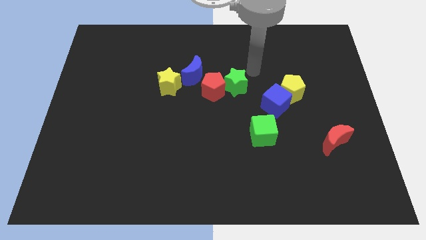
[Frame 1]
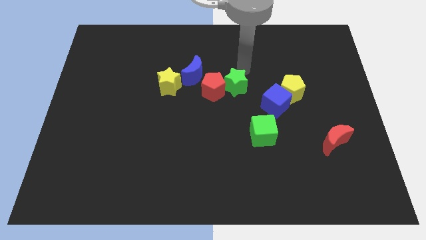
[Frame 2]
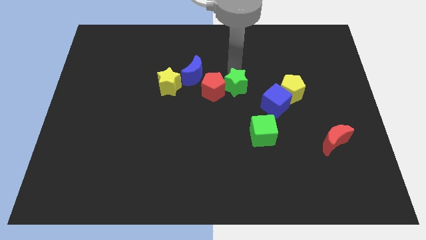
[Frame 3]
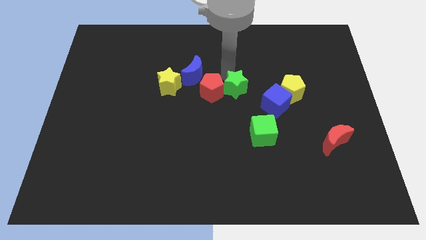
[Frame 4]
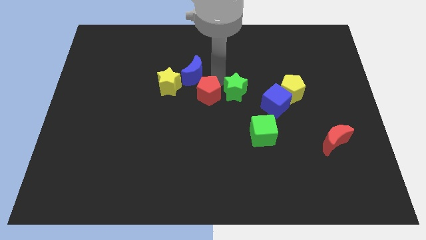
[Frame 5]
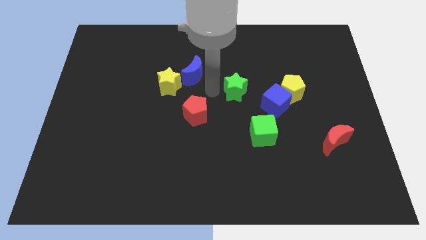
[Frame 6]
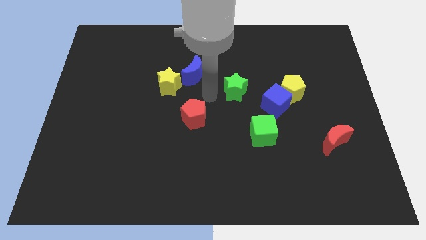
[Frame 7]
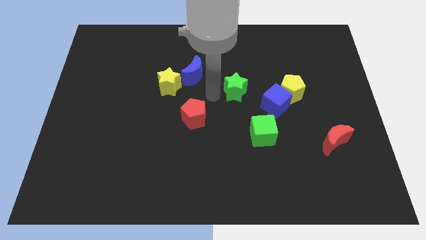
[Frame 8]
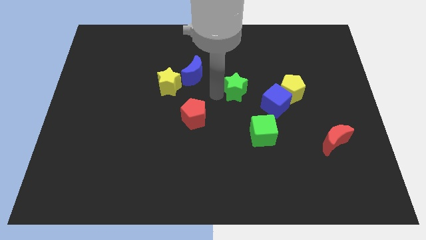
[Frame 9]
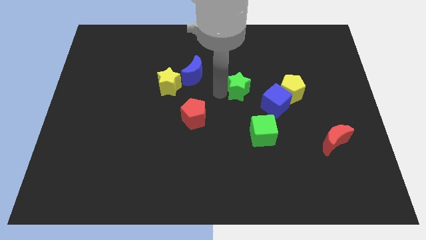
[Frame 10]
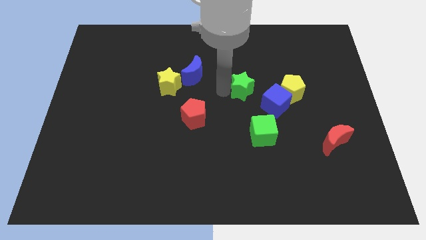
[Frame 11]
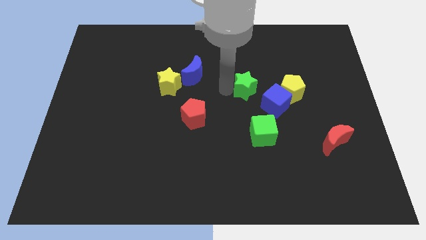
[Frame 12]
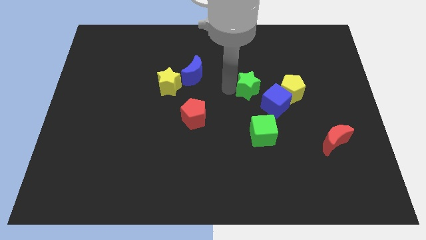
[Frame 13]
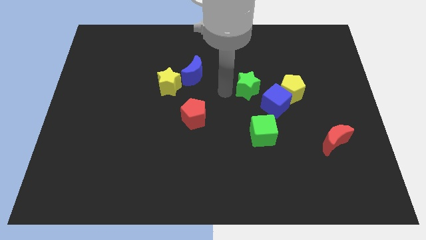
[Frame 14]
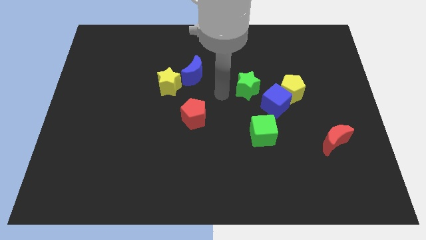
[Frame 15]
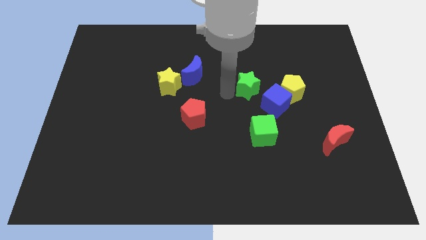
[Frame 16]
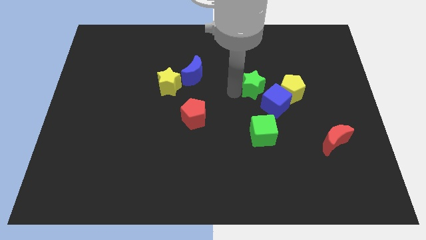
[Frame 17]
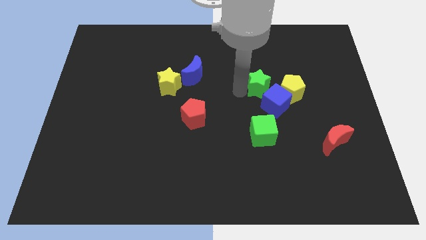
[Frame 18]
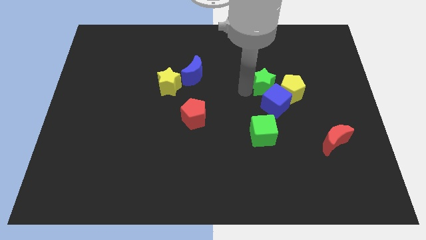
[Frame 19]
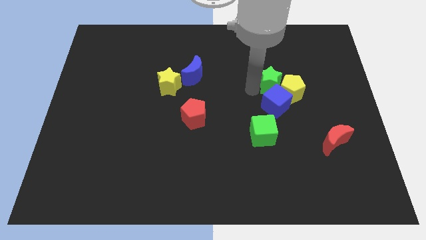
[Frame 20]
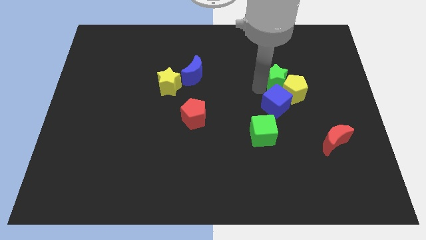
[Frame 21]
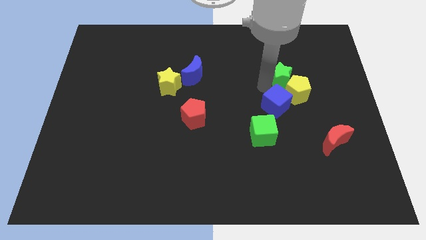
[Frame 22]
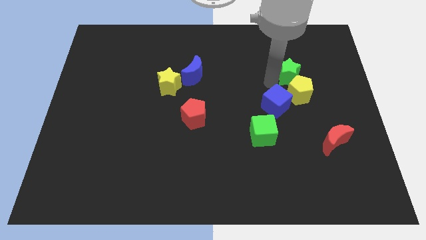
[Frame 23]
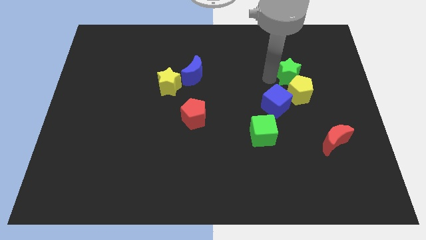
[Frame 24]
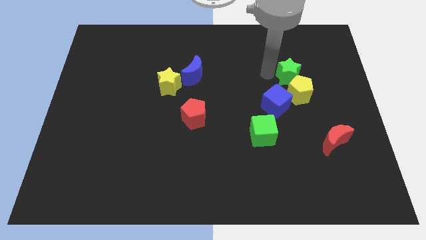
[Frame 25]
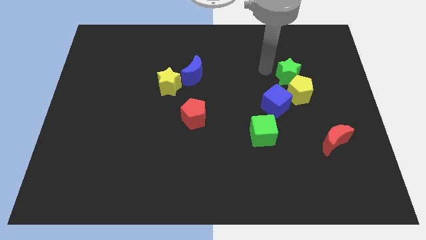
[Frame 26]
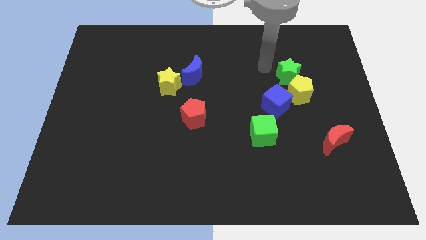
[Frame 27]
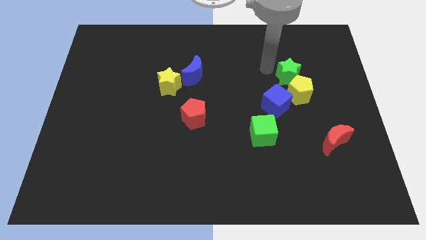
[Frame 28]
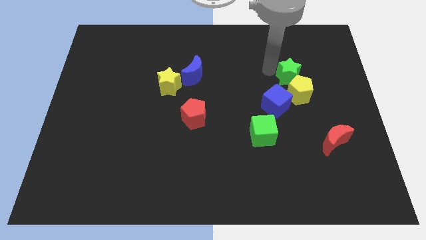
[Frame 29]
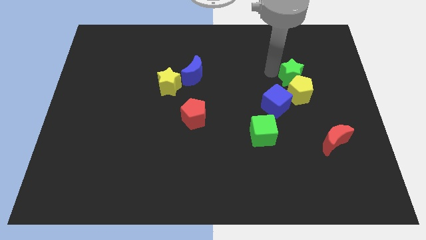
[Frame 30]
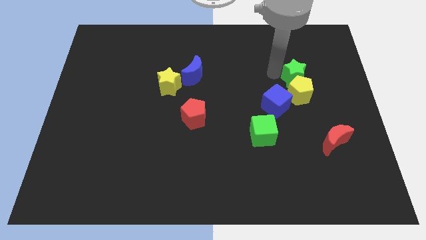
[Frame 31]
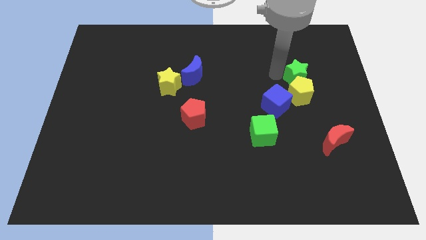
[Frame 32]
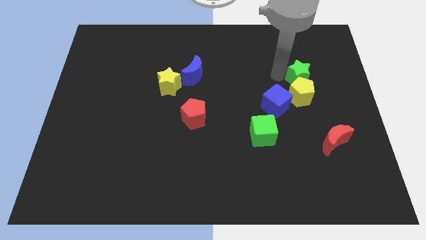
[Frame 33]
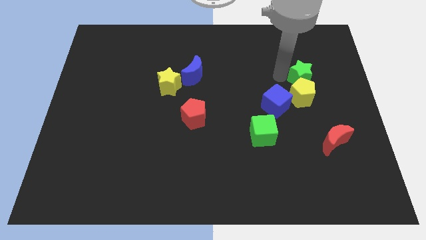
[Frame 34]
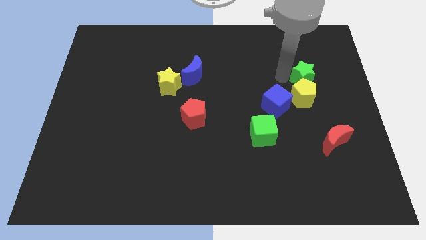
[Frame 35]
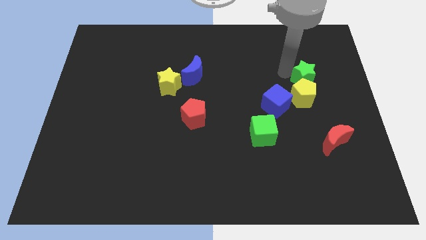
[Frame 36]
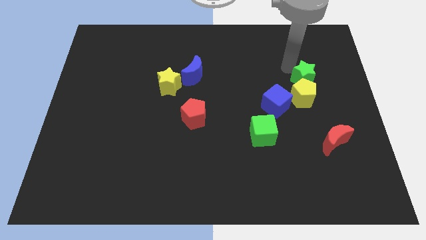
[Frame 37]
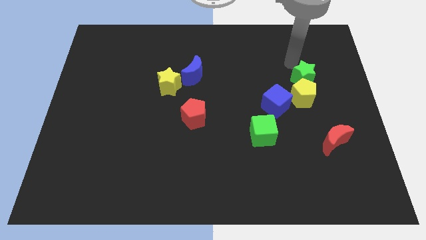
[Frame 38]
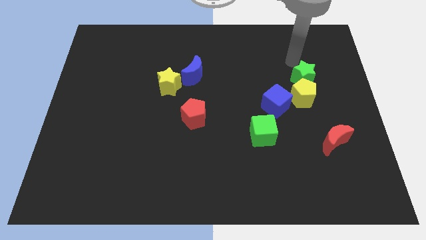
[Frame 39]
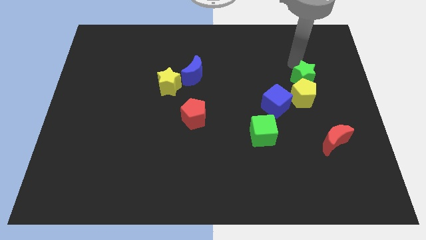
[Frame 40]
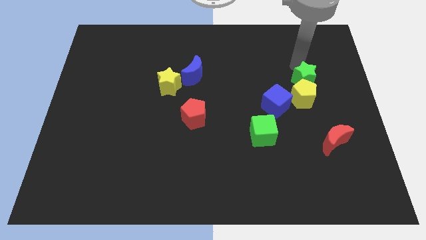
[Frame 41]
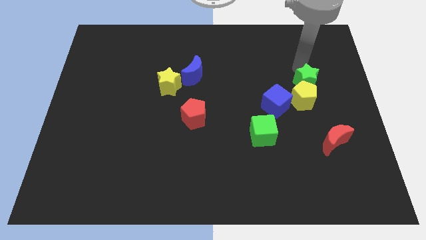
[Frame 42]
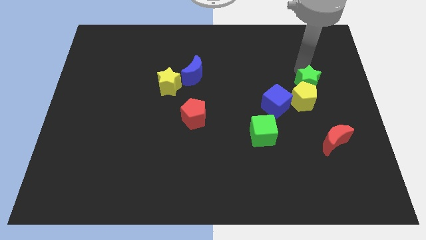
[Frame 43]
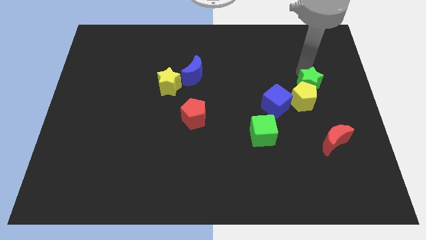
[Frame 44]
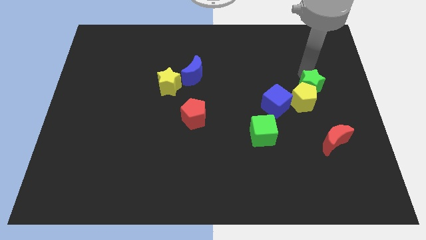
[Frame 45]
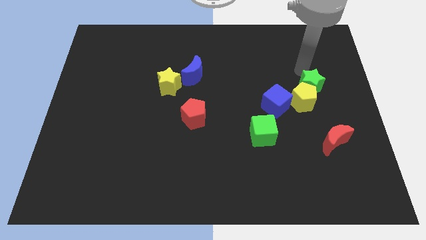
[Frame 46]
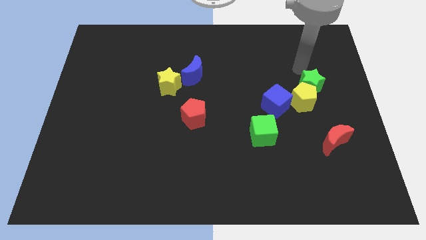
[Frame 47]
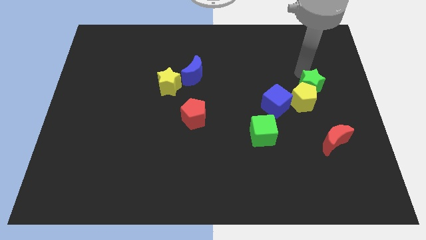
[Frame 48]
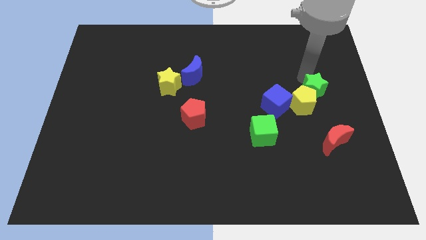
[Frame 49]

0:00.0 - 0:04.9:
slide the green star to the right of the blue cube

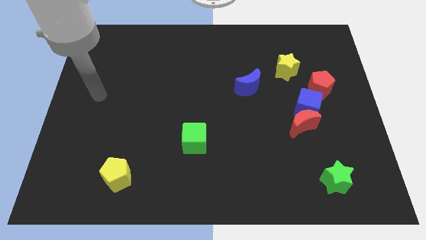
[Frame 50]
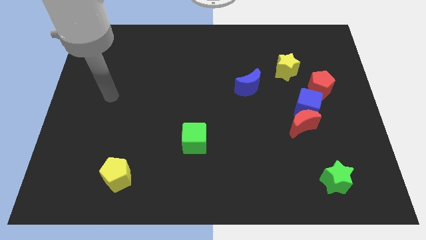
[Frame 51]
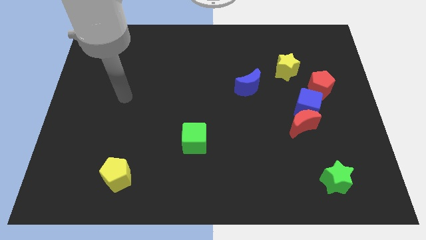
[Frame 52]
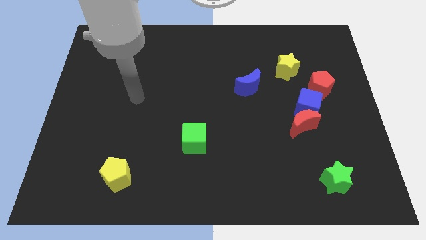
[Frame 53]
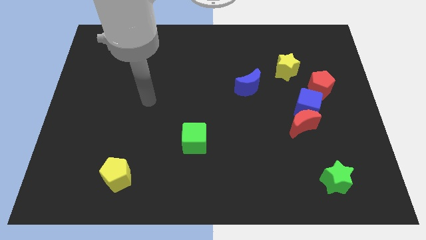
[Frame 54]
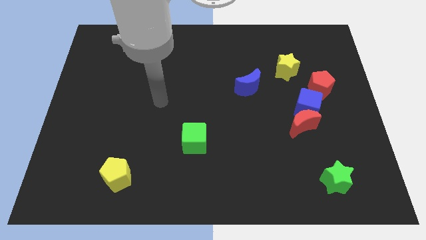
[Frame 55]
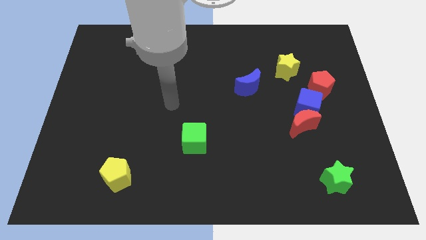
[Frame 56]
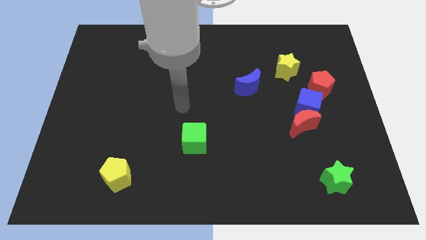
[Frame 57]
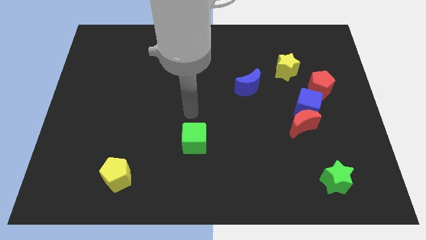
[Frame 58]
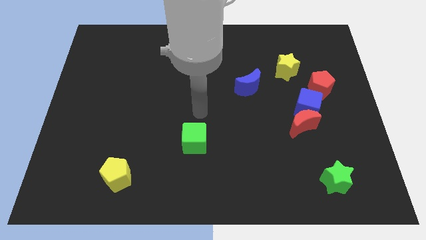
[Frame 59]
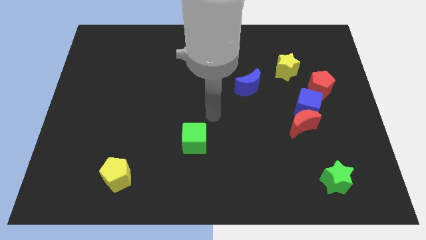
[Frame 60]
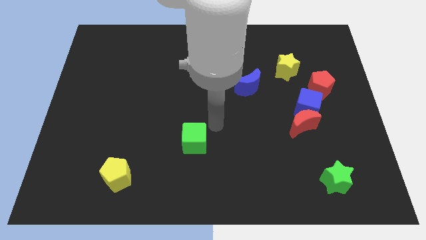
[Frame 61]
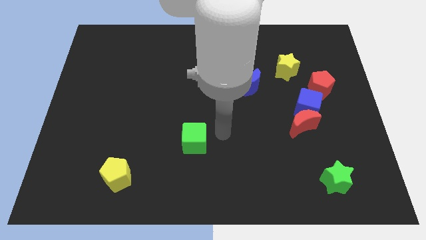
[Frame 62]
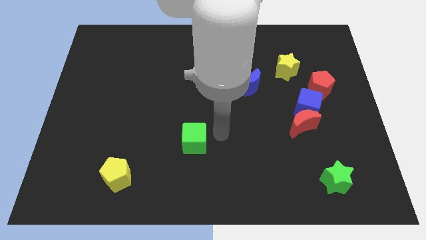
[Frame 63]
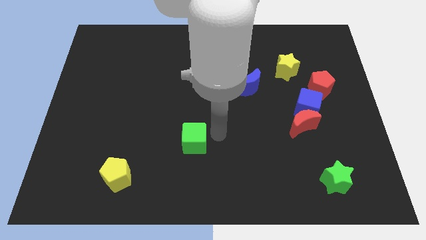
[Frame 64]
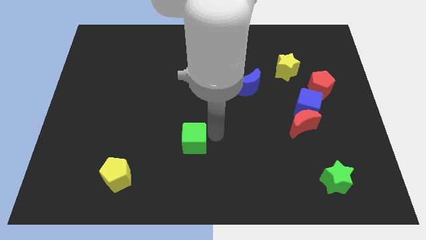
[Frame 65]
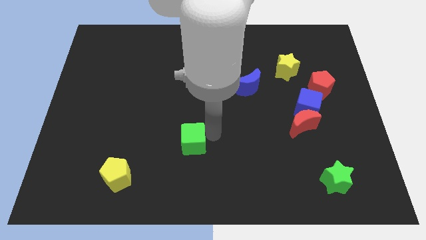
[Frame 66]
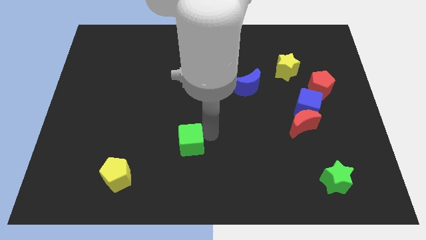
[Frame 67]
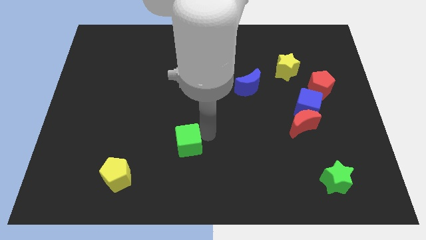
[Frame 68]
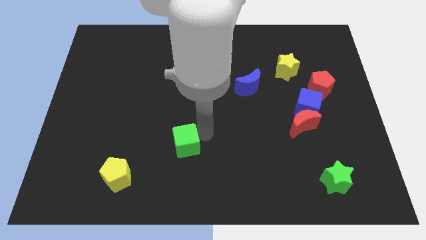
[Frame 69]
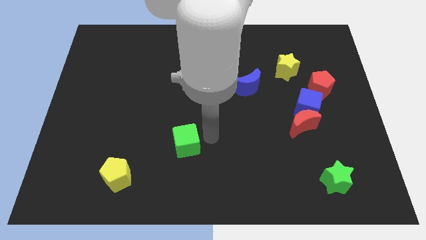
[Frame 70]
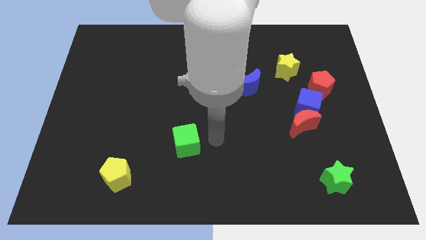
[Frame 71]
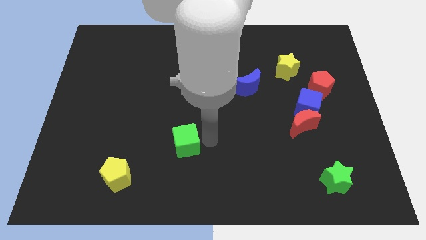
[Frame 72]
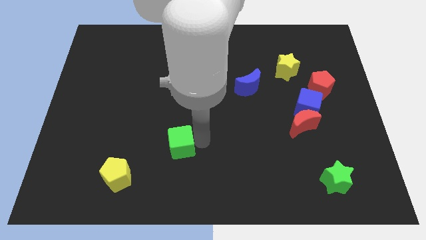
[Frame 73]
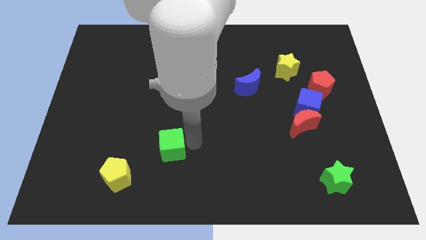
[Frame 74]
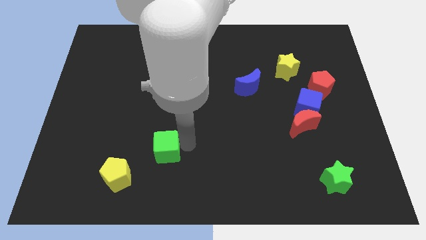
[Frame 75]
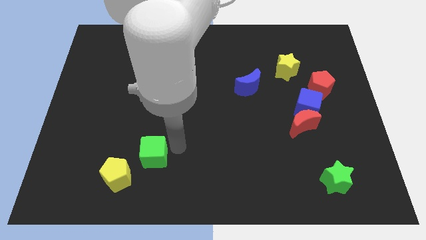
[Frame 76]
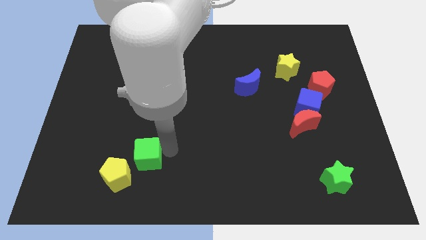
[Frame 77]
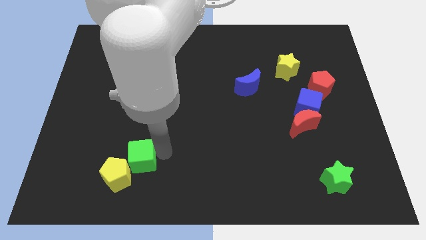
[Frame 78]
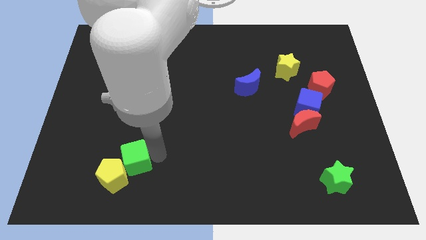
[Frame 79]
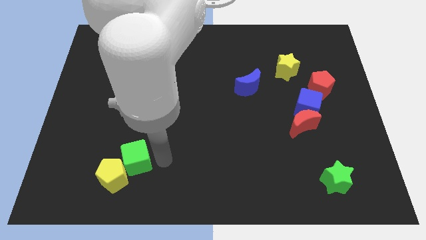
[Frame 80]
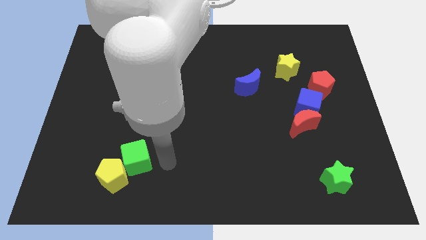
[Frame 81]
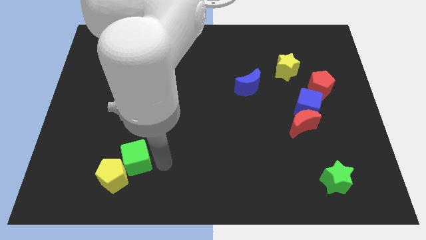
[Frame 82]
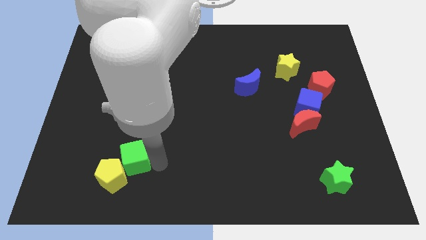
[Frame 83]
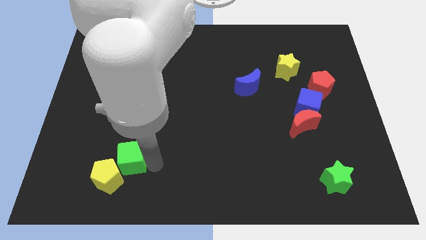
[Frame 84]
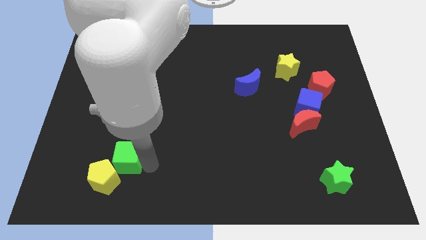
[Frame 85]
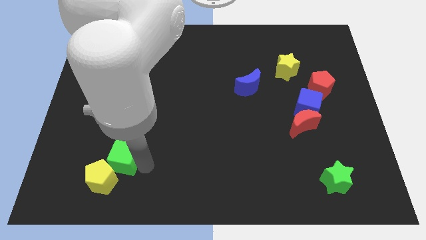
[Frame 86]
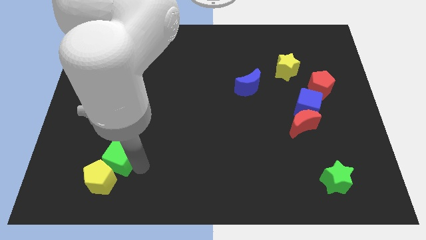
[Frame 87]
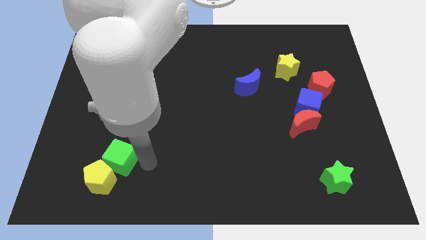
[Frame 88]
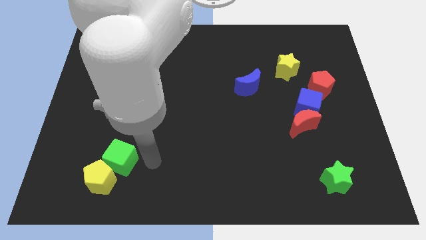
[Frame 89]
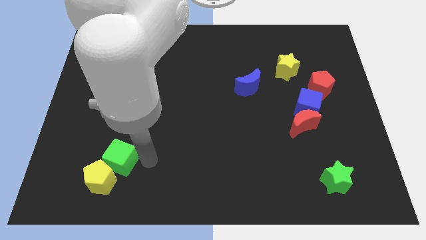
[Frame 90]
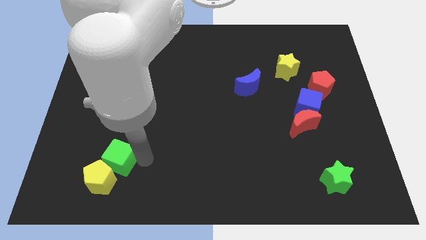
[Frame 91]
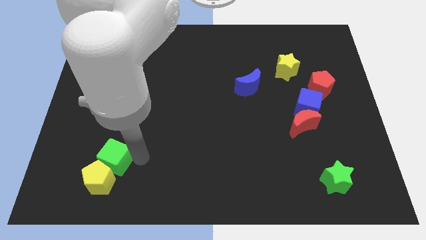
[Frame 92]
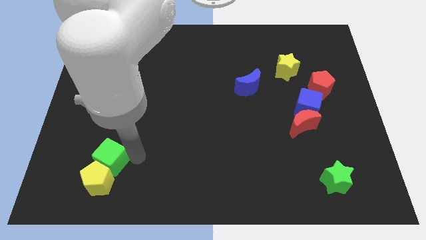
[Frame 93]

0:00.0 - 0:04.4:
push the green cube to the top left of the yellow pentagon
